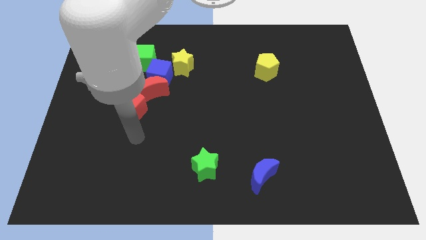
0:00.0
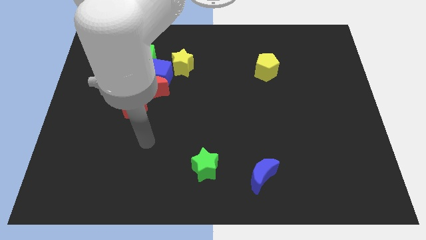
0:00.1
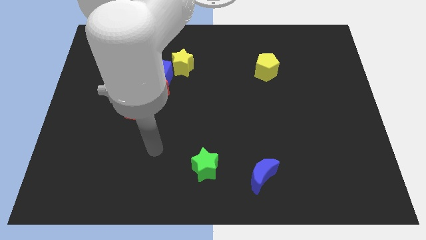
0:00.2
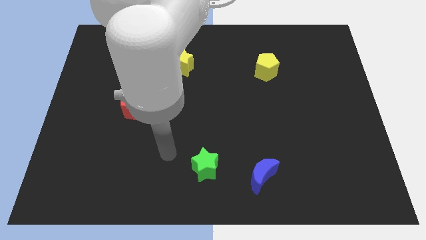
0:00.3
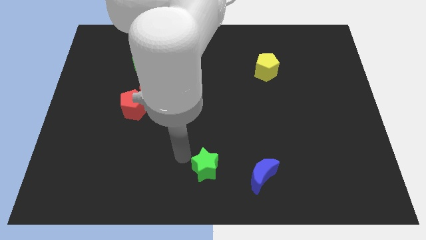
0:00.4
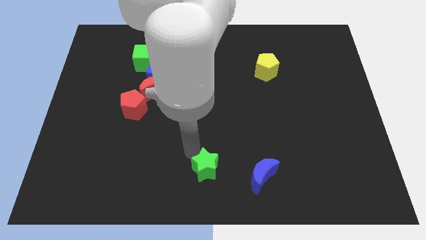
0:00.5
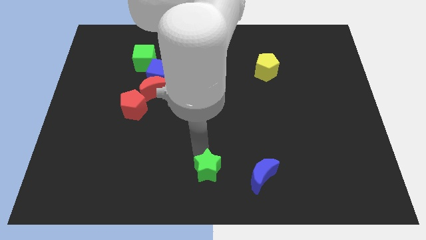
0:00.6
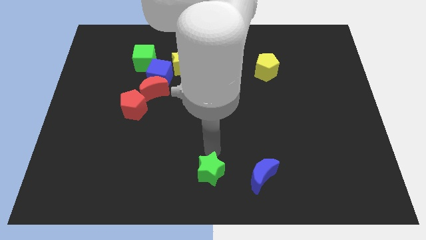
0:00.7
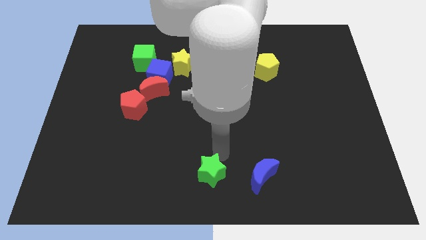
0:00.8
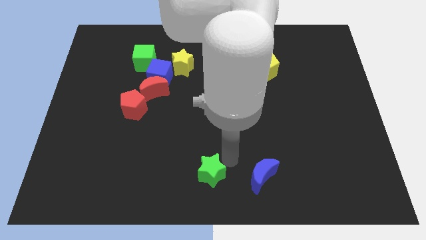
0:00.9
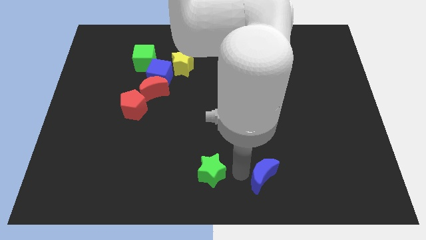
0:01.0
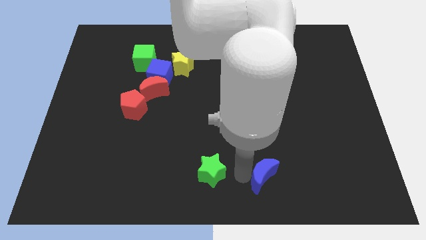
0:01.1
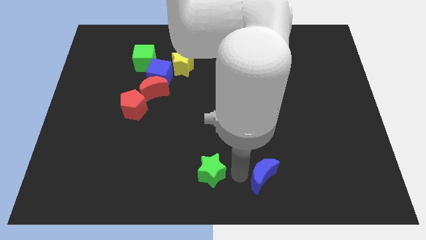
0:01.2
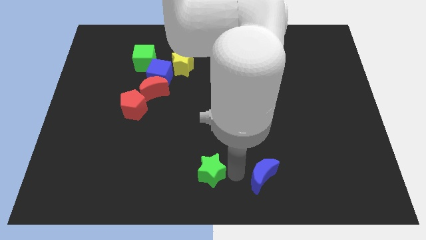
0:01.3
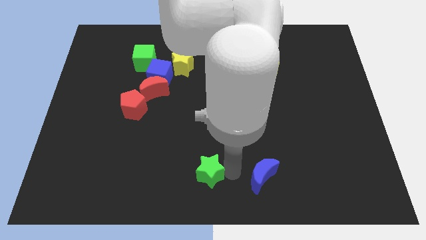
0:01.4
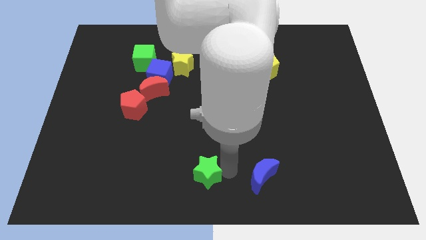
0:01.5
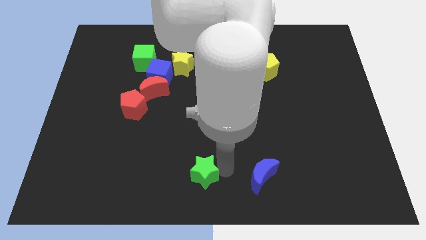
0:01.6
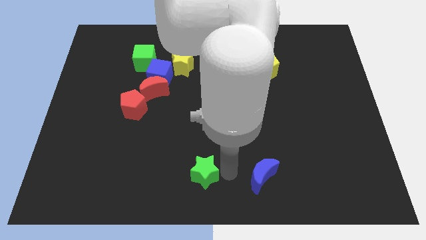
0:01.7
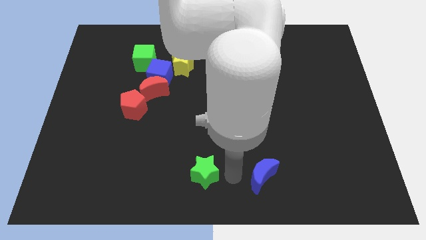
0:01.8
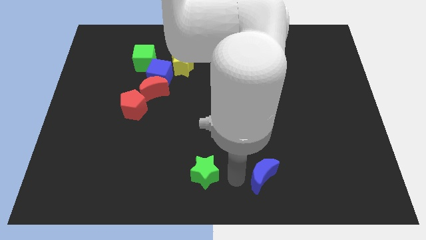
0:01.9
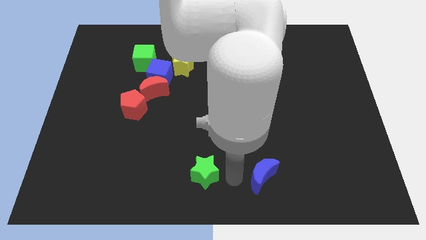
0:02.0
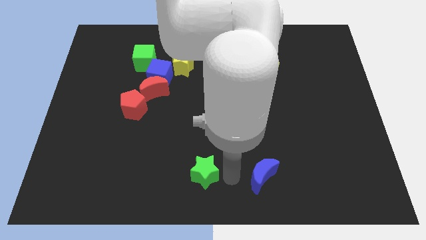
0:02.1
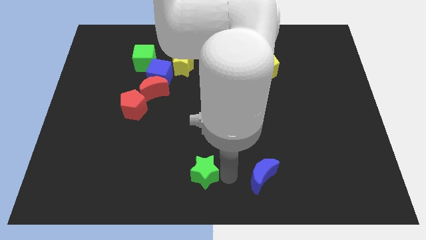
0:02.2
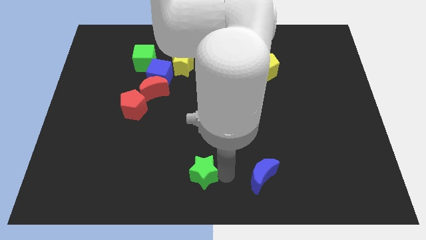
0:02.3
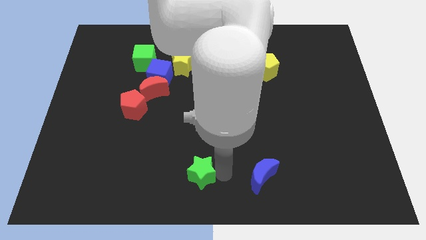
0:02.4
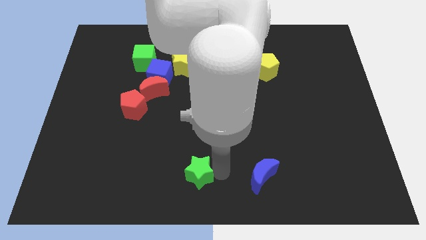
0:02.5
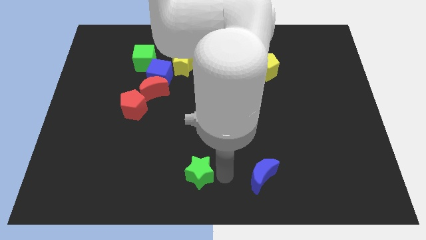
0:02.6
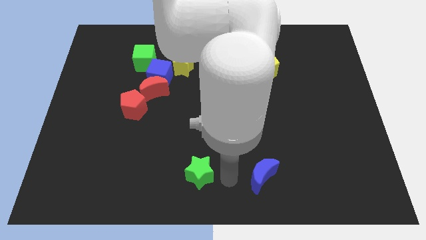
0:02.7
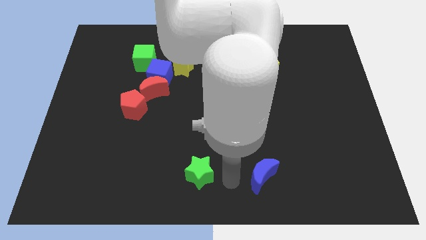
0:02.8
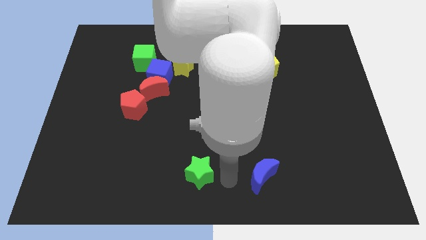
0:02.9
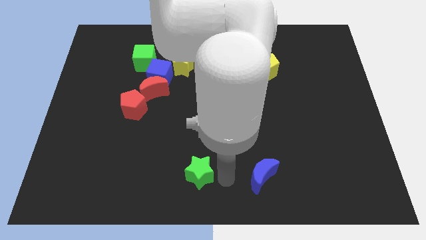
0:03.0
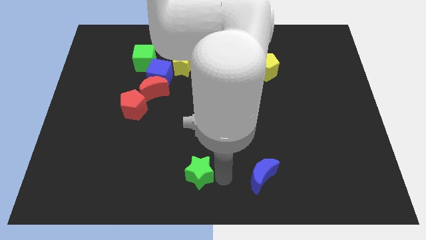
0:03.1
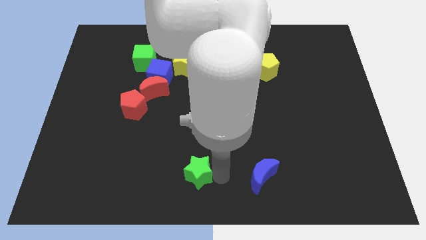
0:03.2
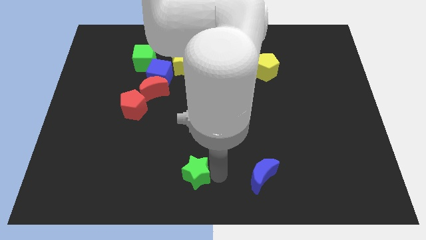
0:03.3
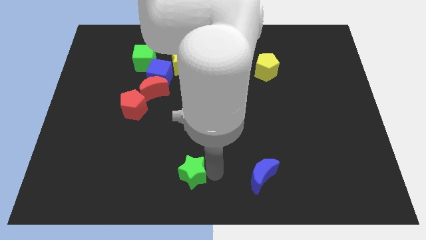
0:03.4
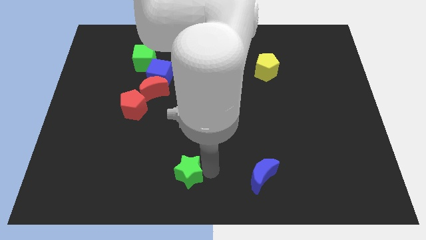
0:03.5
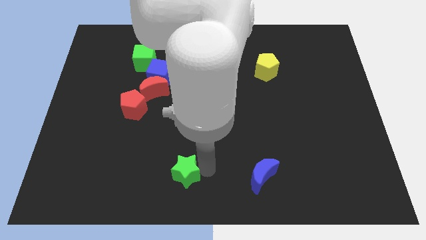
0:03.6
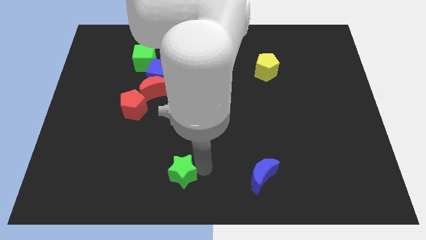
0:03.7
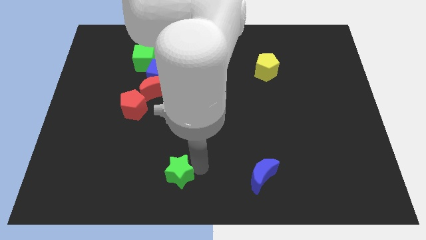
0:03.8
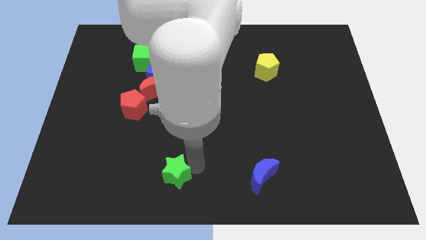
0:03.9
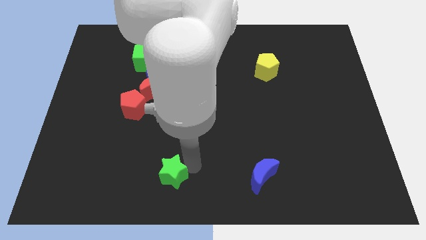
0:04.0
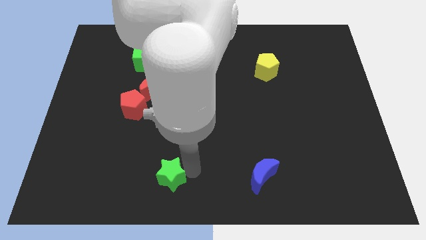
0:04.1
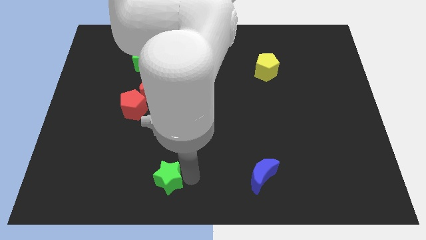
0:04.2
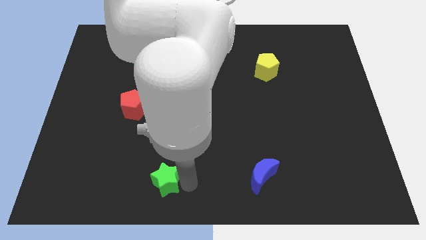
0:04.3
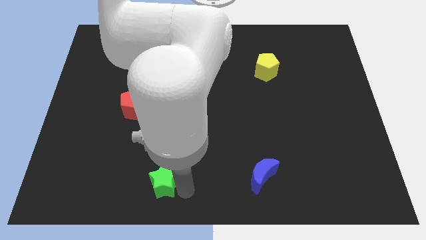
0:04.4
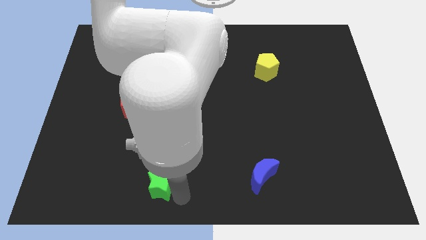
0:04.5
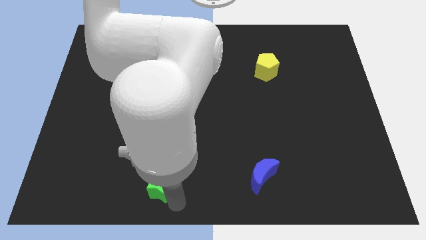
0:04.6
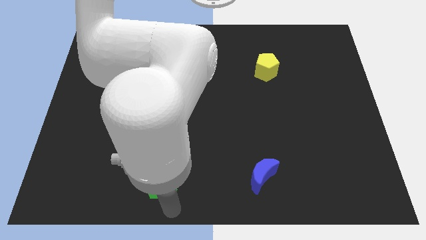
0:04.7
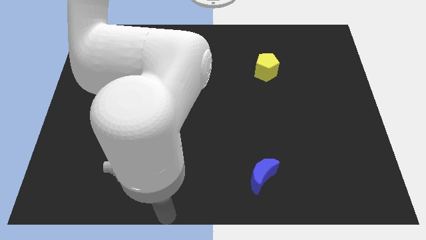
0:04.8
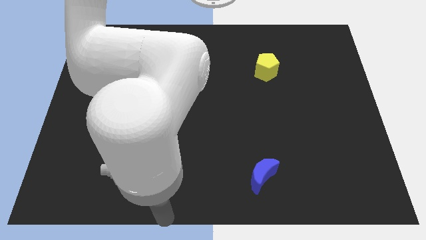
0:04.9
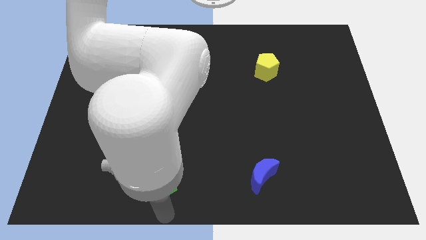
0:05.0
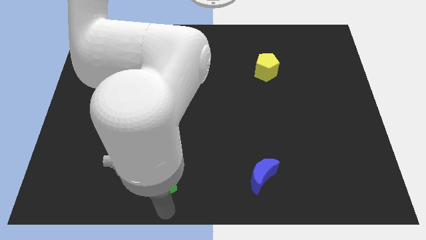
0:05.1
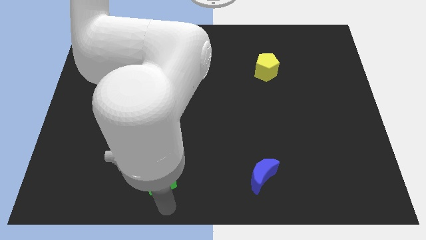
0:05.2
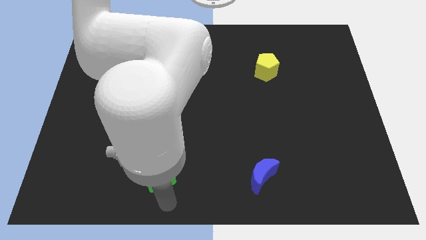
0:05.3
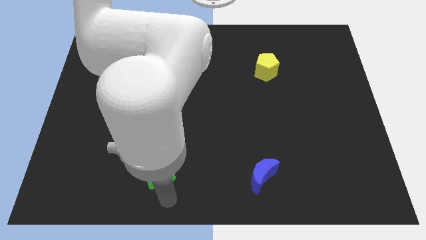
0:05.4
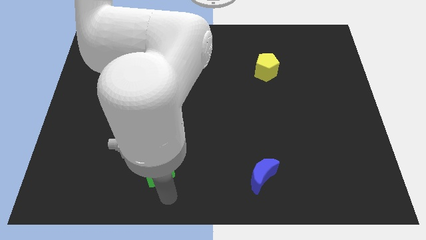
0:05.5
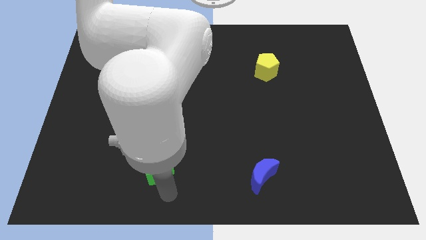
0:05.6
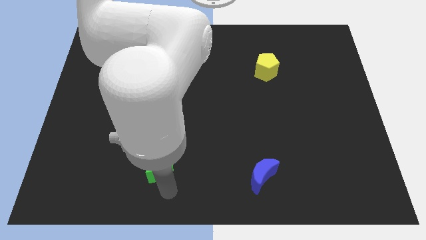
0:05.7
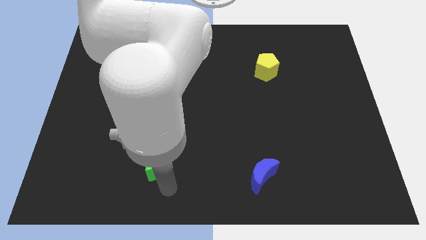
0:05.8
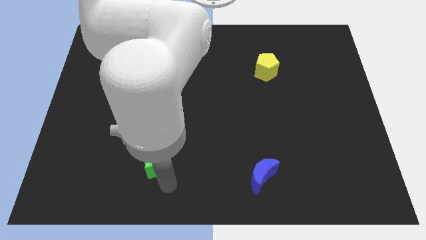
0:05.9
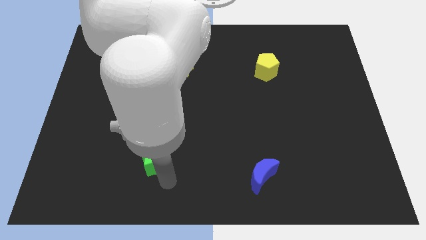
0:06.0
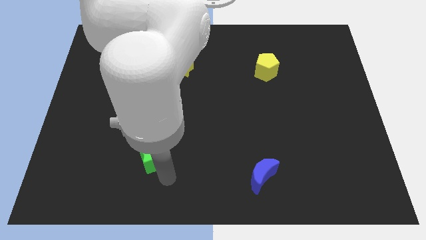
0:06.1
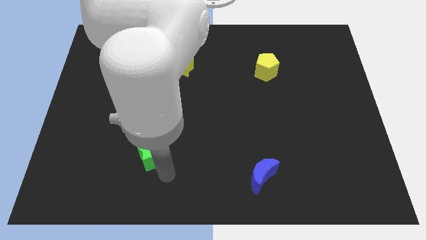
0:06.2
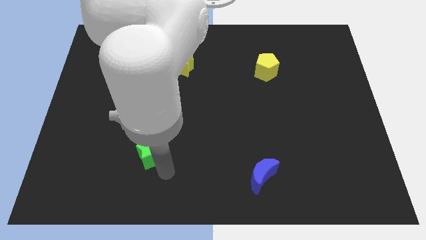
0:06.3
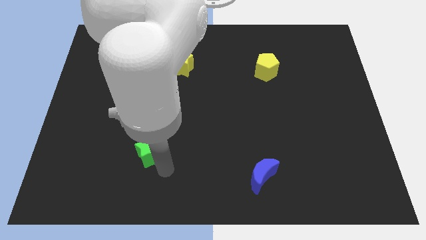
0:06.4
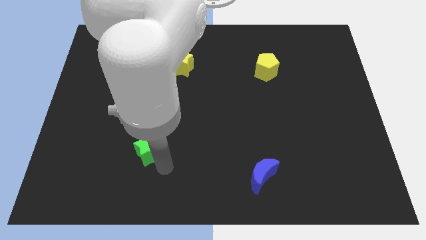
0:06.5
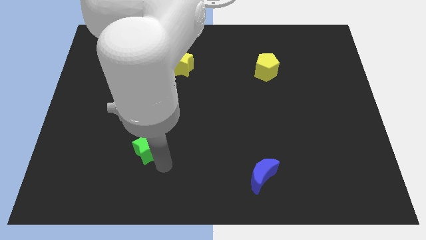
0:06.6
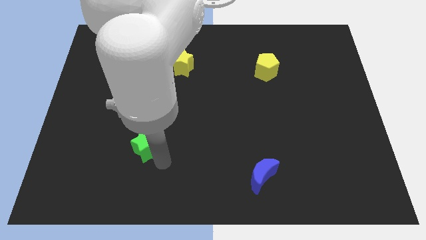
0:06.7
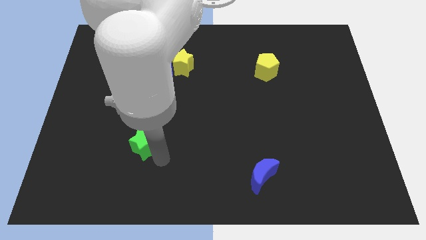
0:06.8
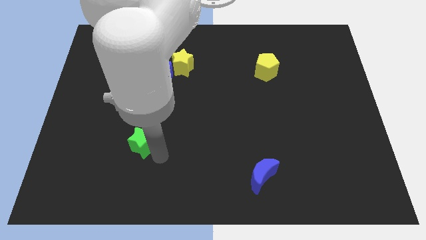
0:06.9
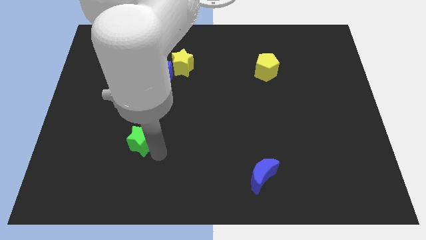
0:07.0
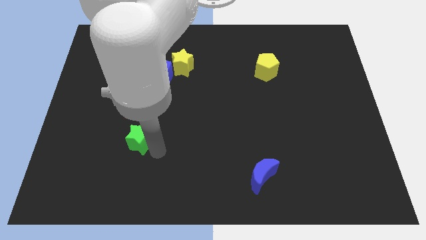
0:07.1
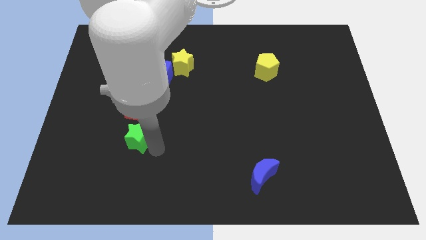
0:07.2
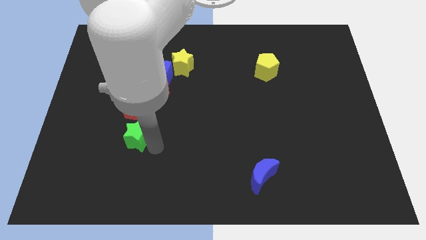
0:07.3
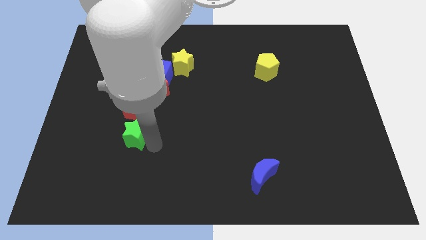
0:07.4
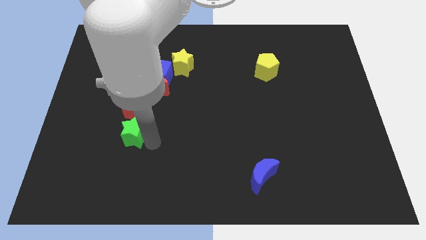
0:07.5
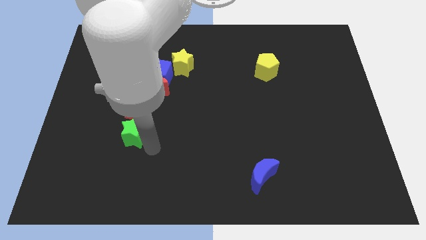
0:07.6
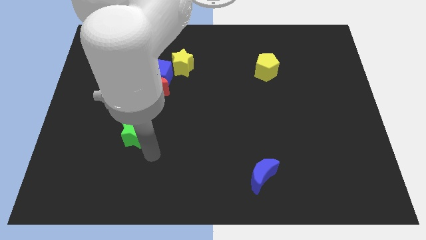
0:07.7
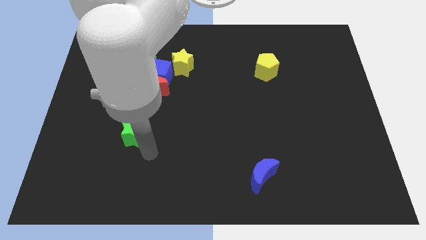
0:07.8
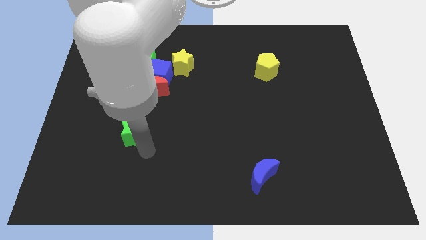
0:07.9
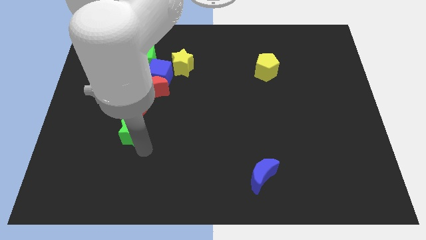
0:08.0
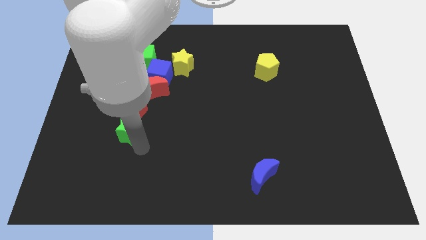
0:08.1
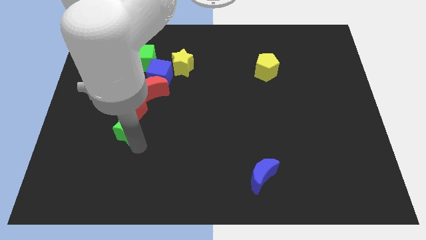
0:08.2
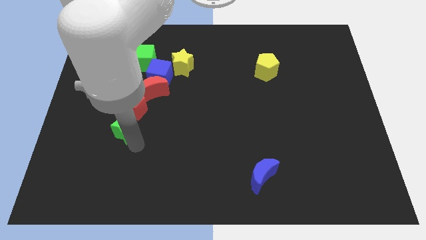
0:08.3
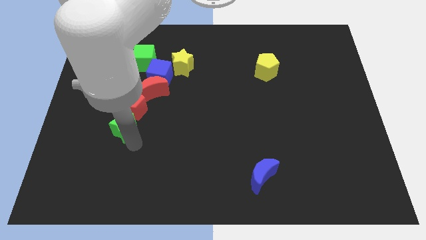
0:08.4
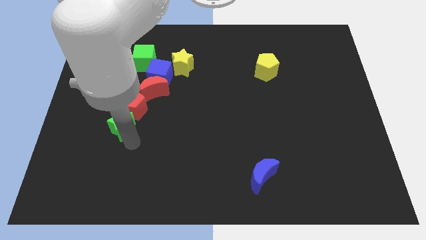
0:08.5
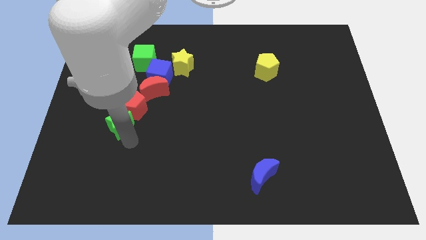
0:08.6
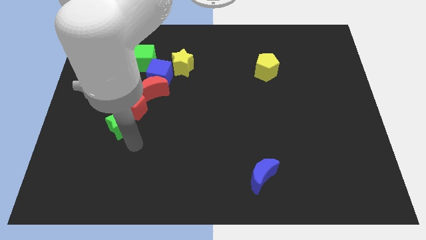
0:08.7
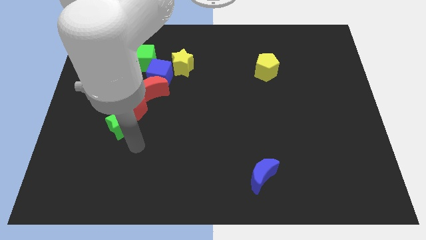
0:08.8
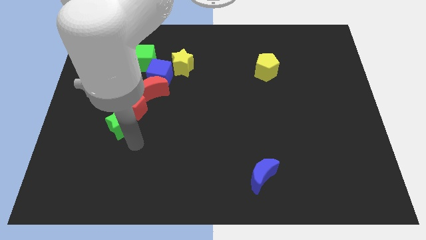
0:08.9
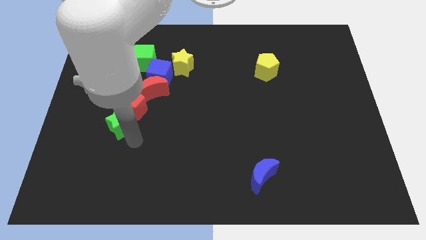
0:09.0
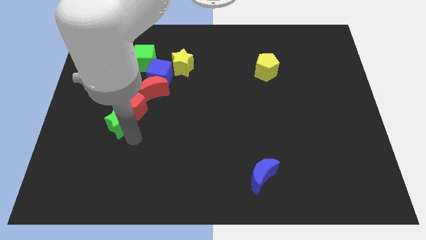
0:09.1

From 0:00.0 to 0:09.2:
slide the green star up and then to the left
